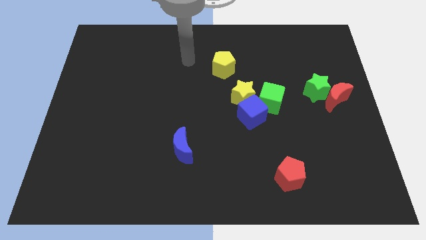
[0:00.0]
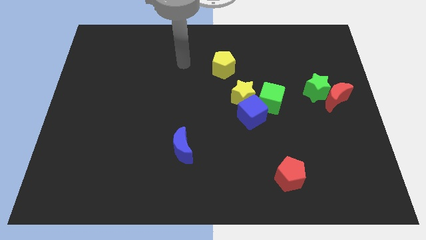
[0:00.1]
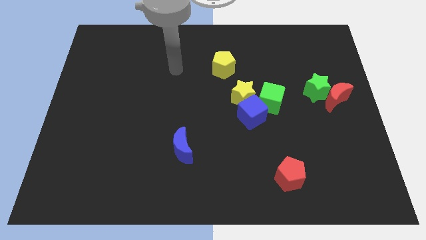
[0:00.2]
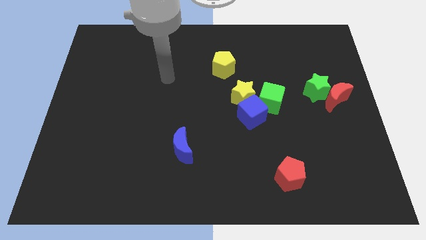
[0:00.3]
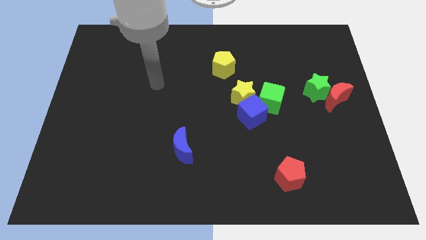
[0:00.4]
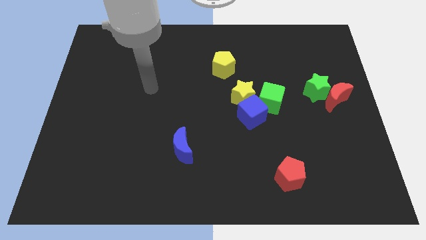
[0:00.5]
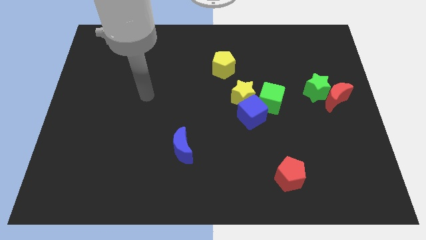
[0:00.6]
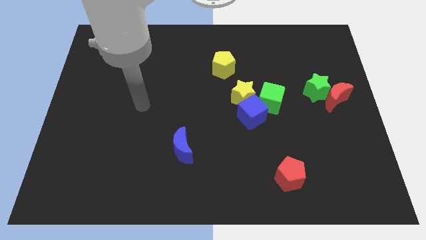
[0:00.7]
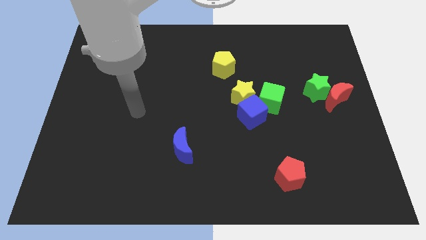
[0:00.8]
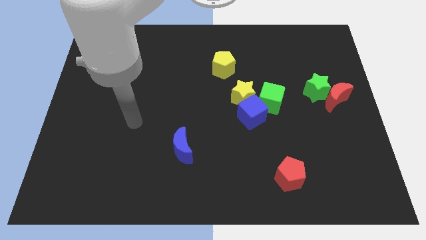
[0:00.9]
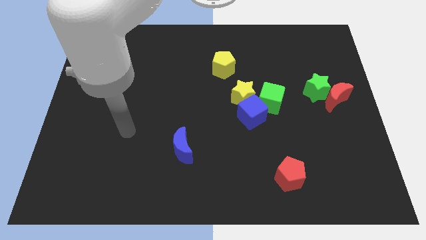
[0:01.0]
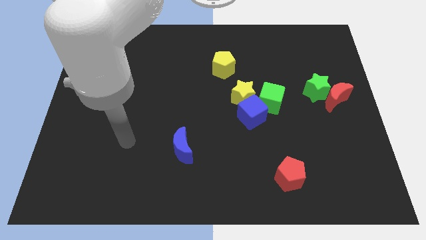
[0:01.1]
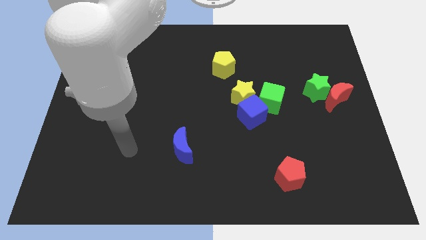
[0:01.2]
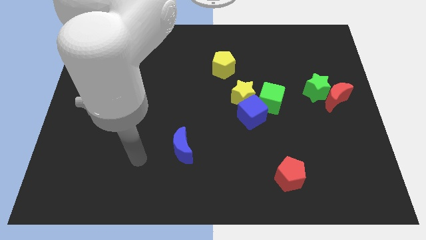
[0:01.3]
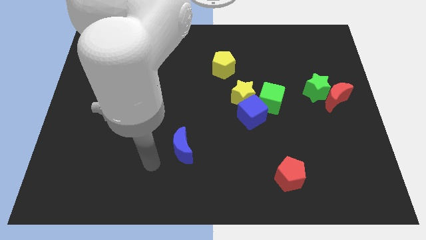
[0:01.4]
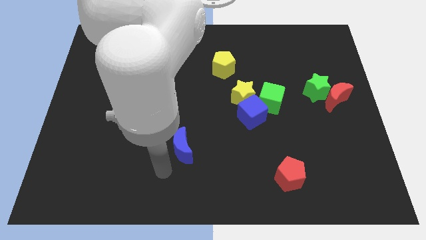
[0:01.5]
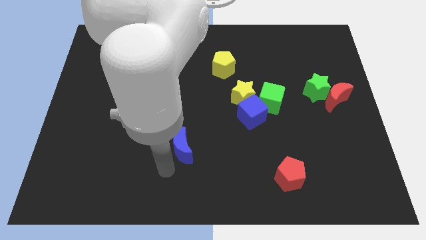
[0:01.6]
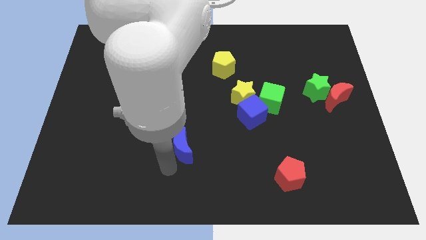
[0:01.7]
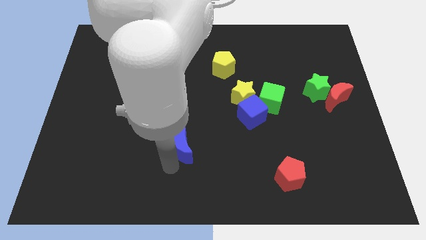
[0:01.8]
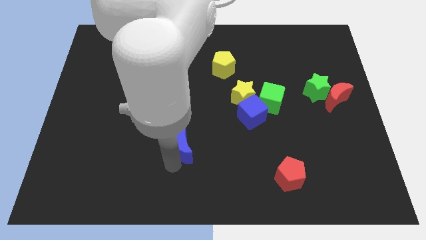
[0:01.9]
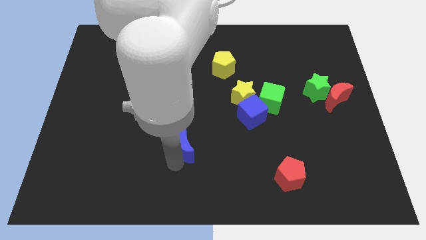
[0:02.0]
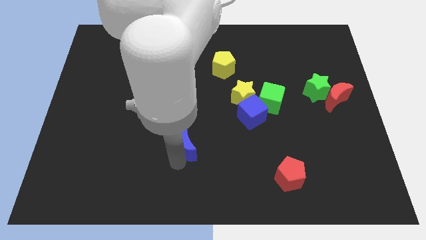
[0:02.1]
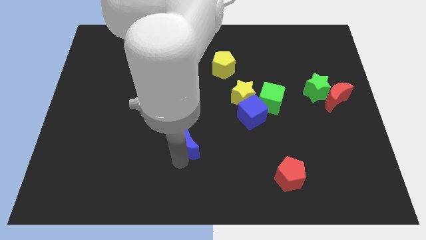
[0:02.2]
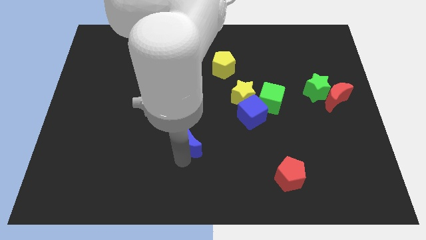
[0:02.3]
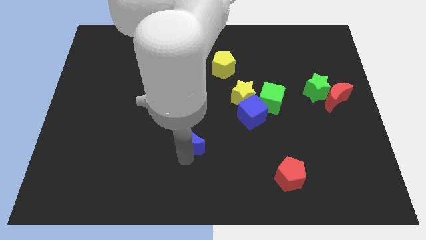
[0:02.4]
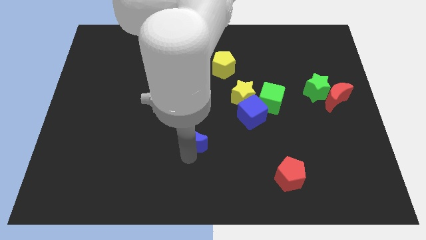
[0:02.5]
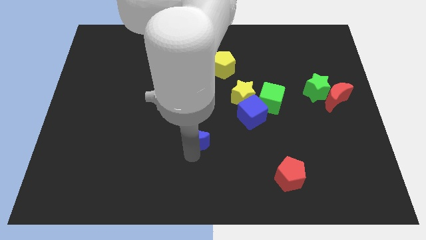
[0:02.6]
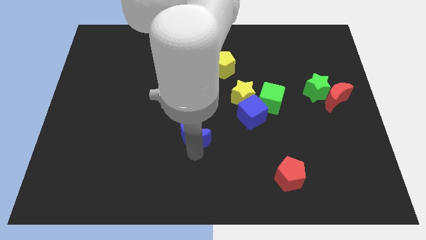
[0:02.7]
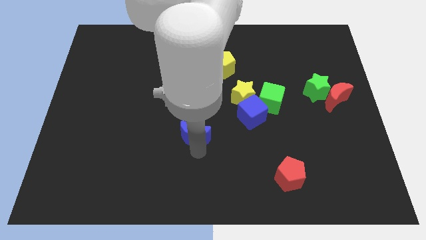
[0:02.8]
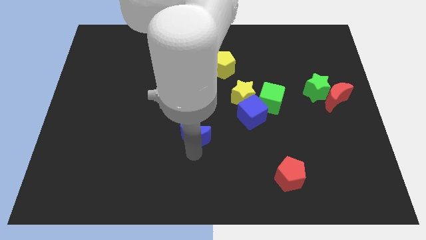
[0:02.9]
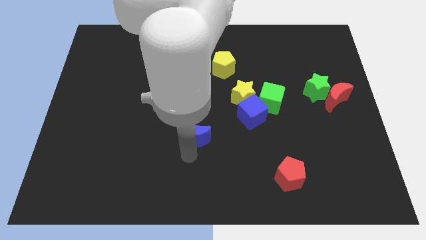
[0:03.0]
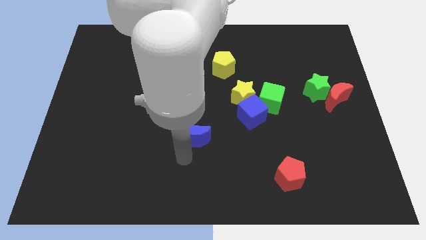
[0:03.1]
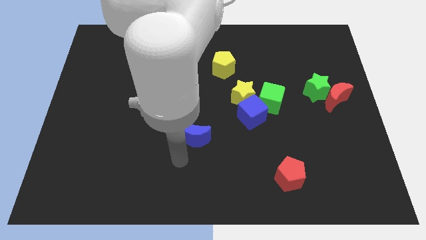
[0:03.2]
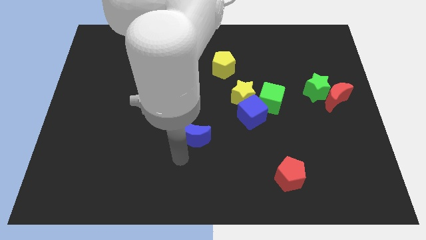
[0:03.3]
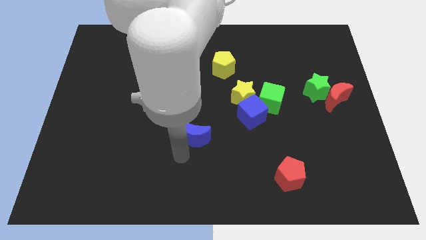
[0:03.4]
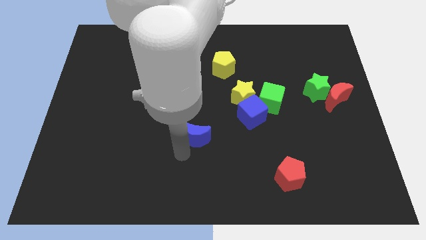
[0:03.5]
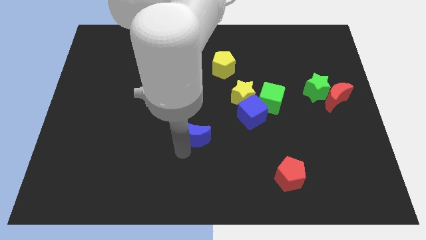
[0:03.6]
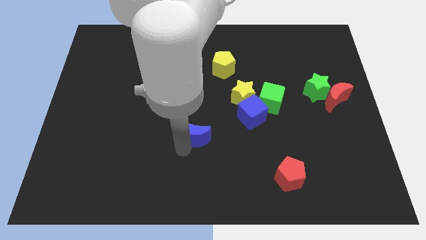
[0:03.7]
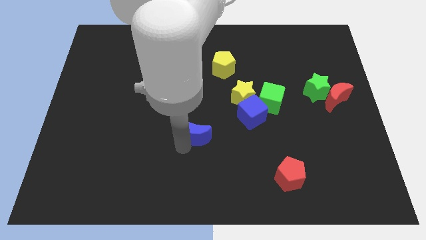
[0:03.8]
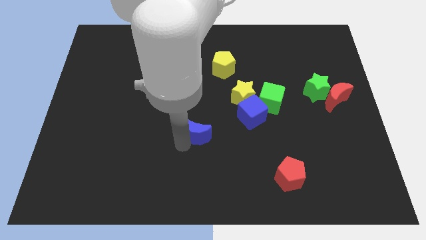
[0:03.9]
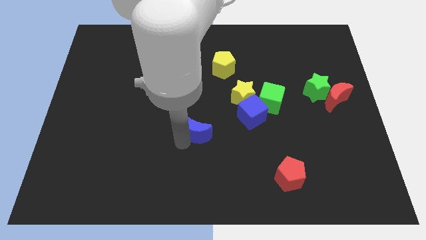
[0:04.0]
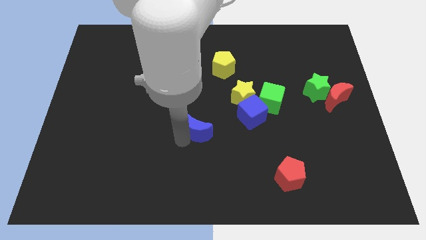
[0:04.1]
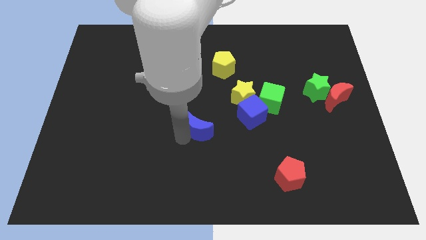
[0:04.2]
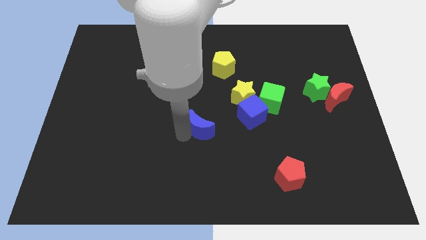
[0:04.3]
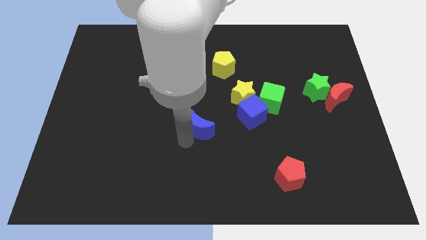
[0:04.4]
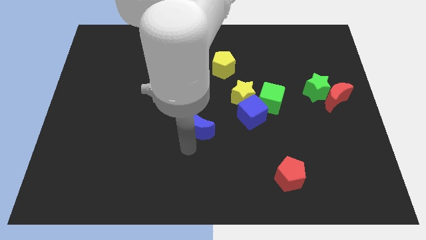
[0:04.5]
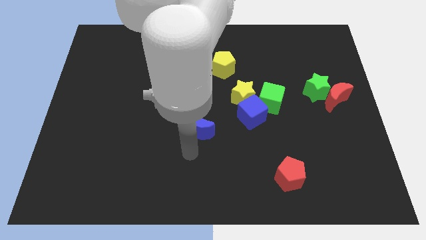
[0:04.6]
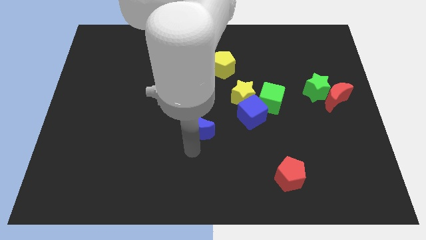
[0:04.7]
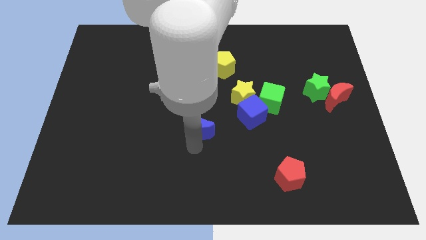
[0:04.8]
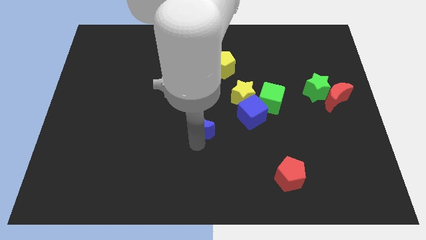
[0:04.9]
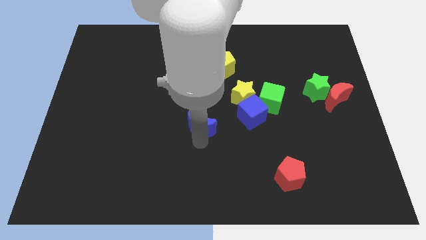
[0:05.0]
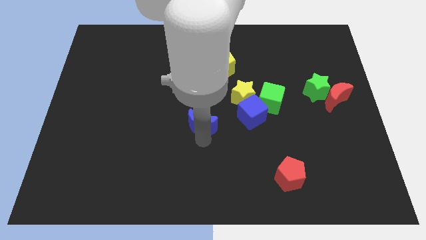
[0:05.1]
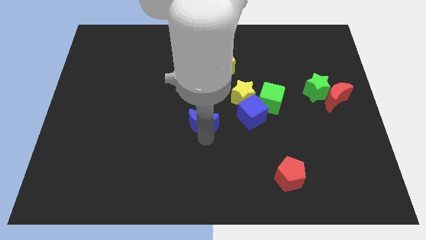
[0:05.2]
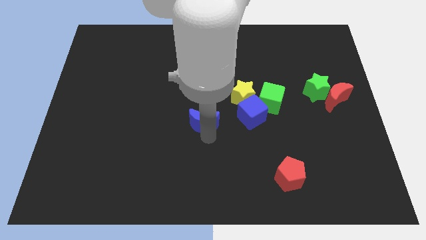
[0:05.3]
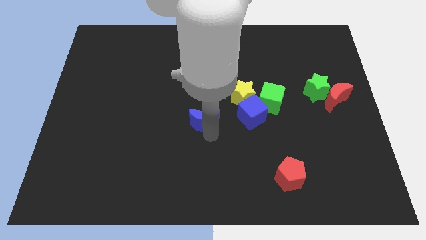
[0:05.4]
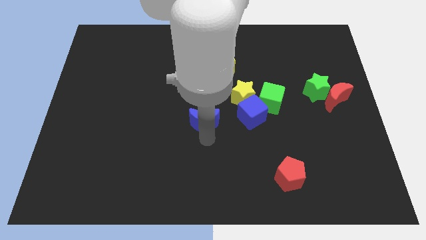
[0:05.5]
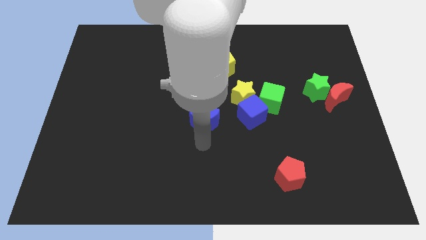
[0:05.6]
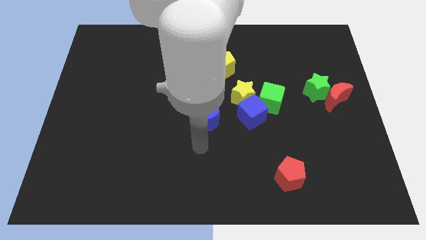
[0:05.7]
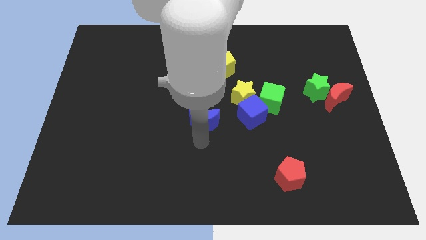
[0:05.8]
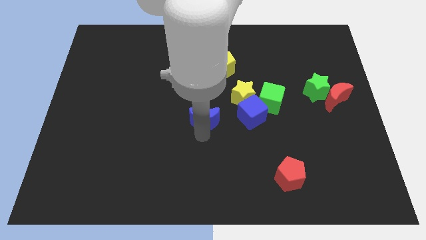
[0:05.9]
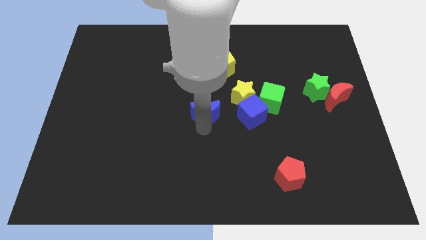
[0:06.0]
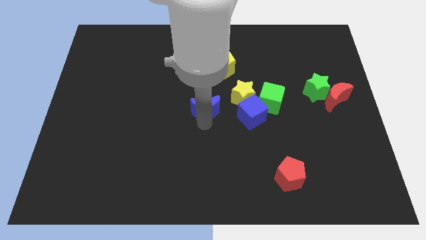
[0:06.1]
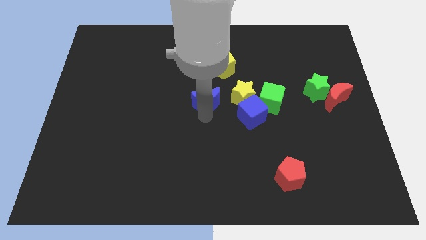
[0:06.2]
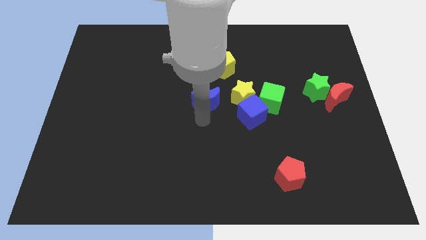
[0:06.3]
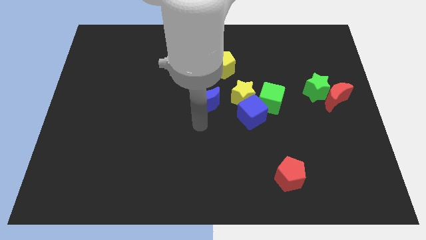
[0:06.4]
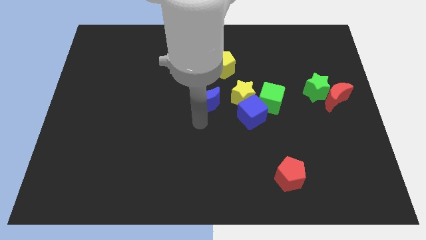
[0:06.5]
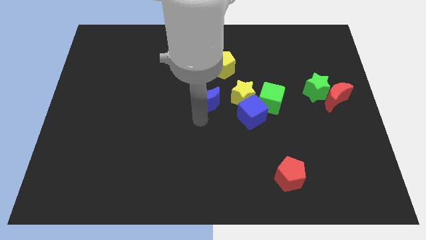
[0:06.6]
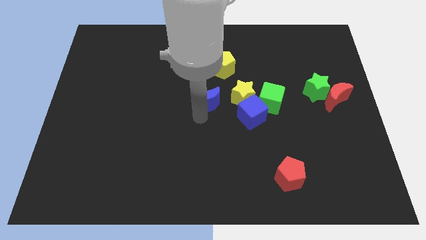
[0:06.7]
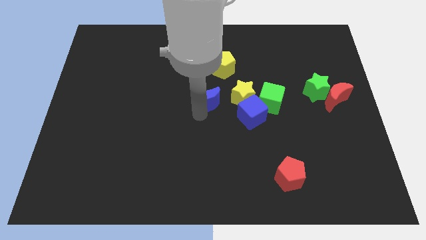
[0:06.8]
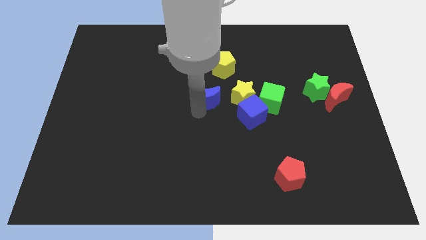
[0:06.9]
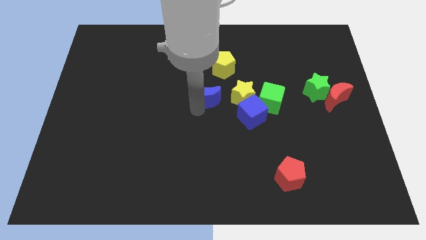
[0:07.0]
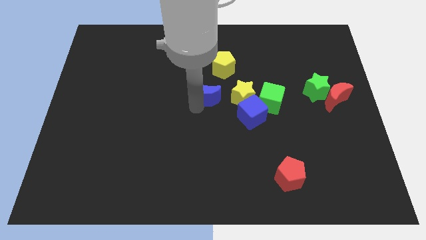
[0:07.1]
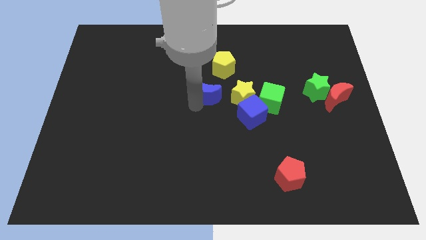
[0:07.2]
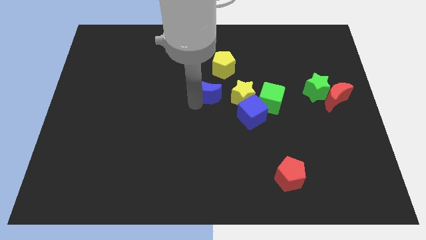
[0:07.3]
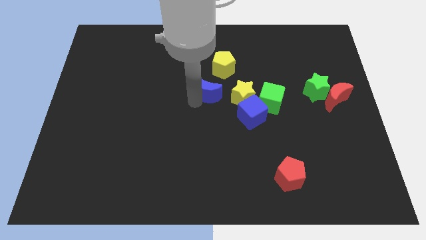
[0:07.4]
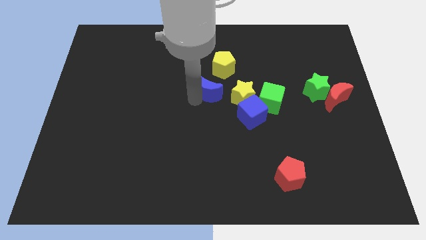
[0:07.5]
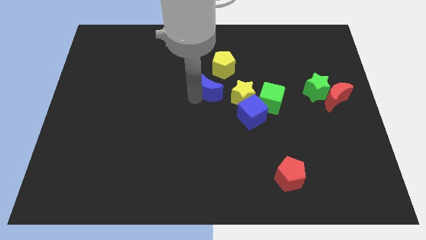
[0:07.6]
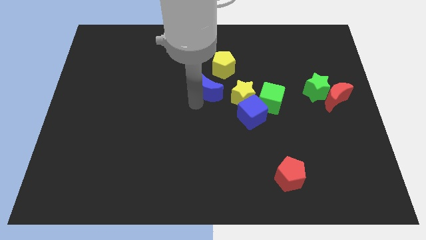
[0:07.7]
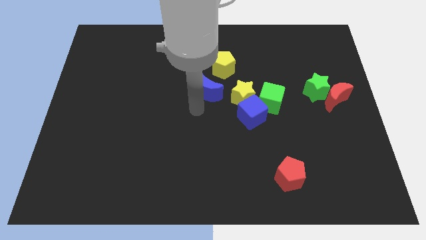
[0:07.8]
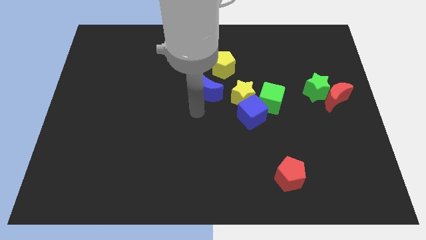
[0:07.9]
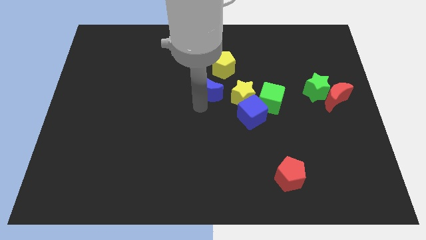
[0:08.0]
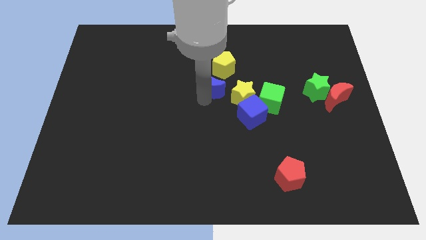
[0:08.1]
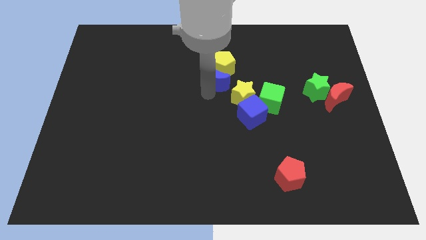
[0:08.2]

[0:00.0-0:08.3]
put the blue moon towards the yellow pentagon
